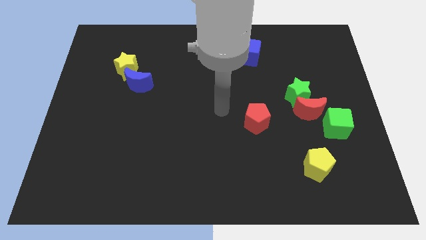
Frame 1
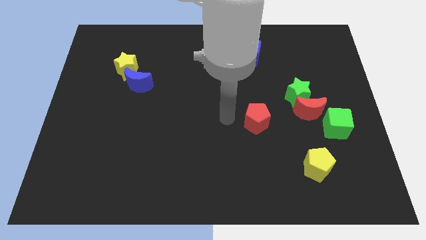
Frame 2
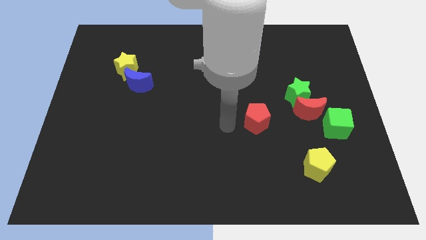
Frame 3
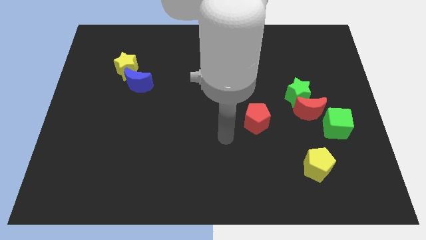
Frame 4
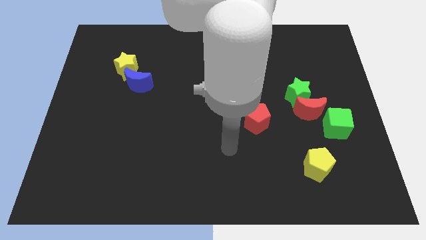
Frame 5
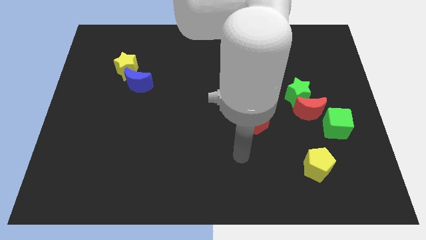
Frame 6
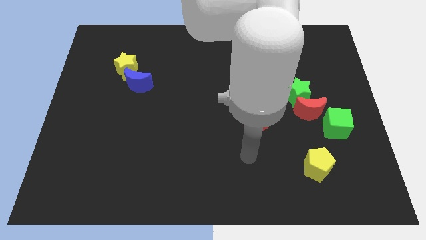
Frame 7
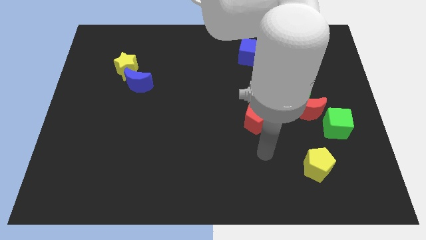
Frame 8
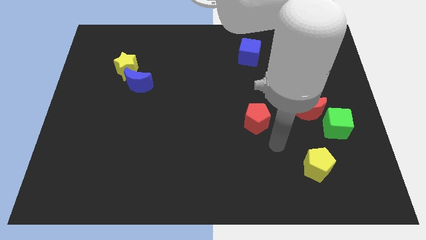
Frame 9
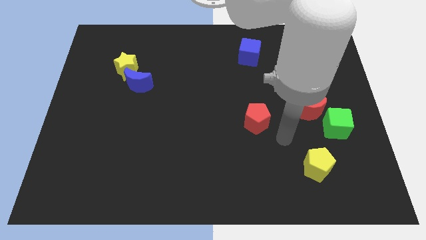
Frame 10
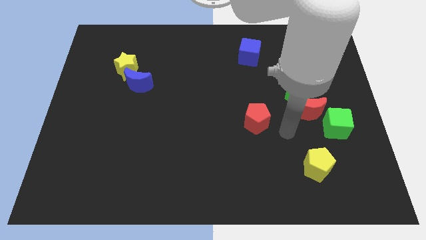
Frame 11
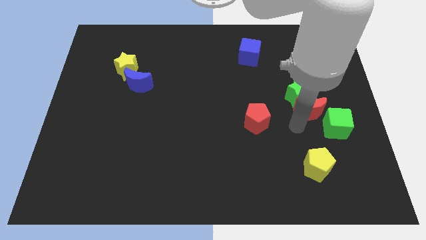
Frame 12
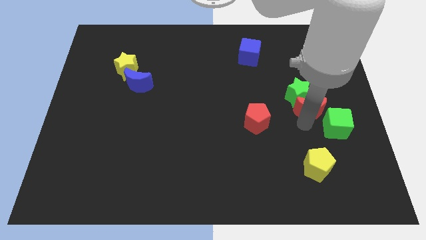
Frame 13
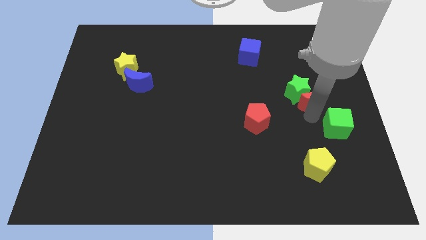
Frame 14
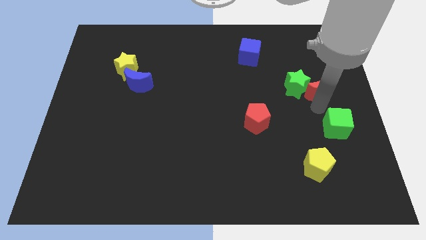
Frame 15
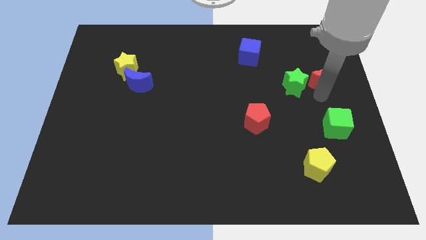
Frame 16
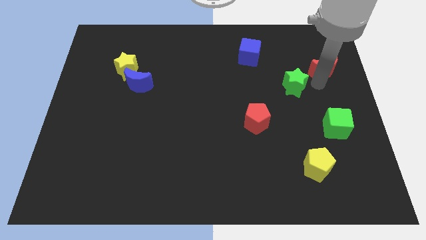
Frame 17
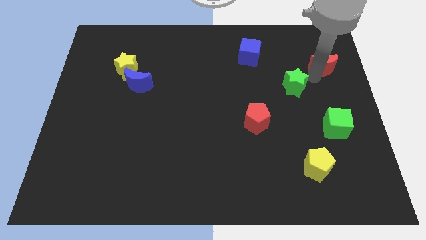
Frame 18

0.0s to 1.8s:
pull the green star apart from the red moon

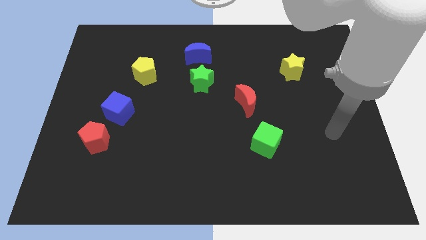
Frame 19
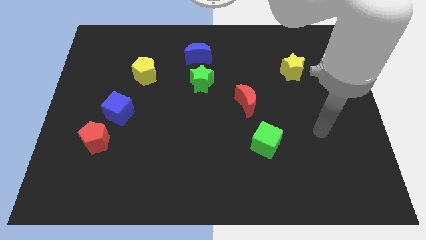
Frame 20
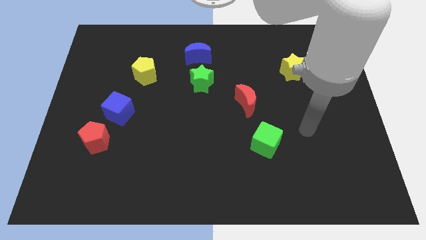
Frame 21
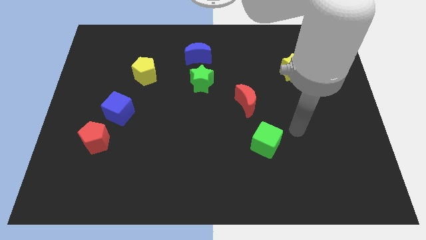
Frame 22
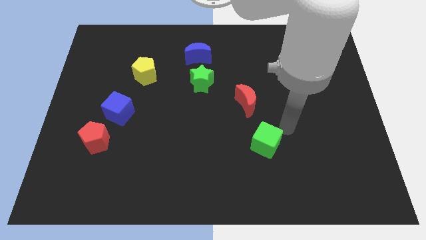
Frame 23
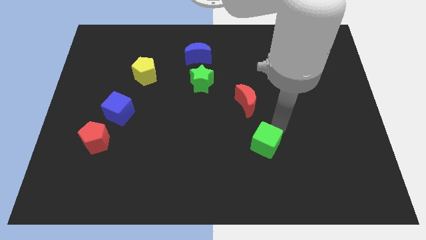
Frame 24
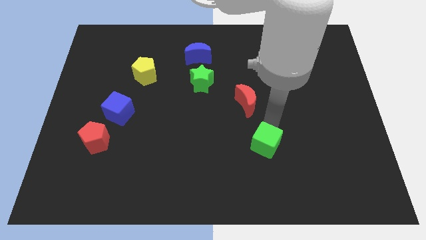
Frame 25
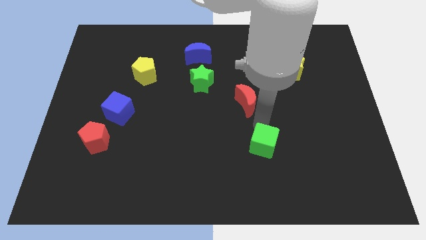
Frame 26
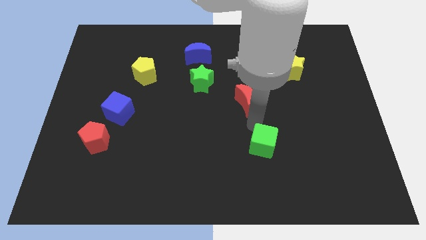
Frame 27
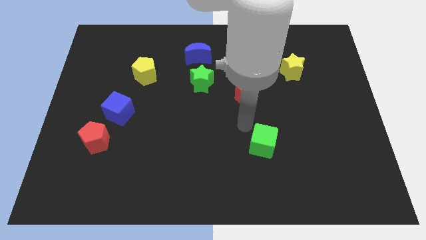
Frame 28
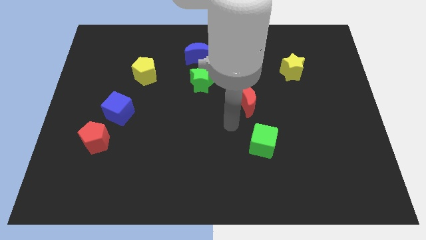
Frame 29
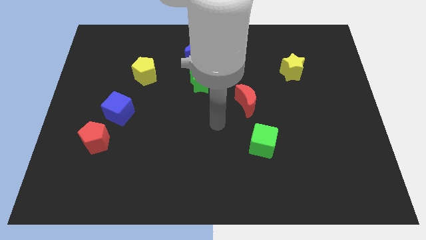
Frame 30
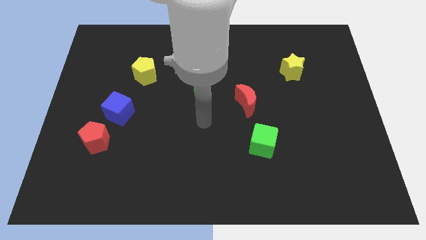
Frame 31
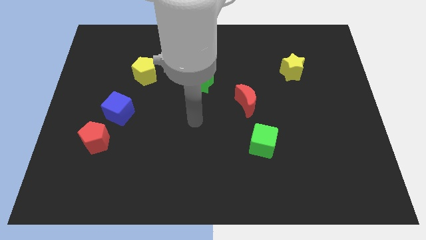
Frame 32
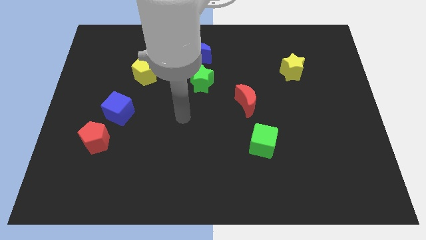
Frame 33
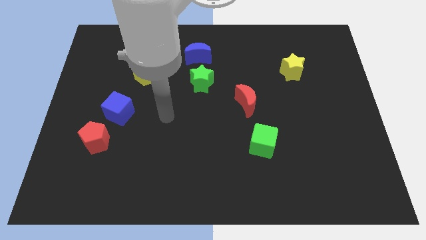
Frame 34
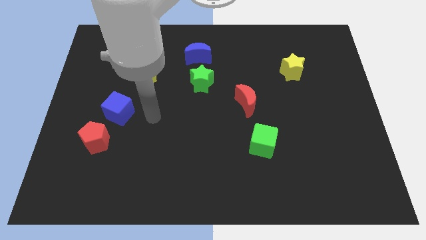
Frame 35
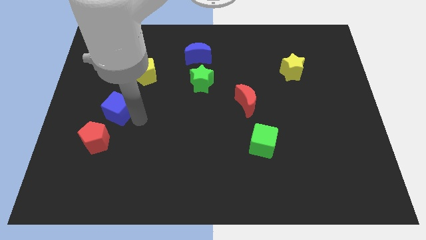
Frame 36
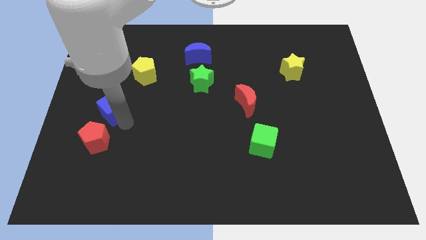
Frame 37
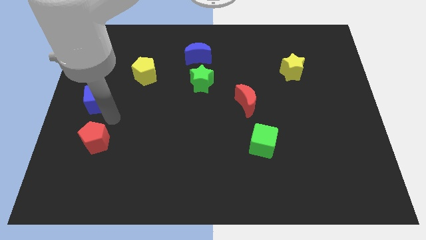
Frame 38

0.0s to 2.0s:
separate the red pentagon from the blue cube

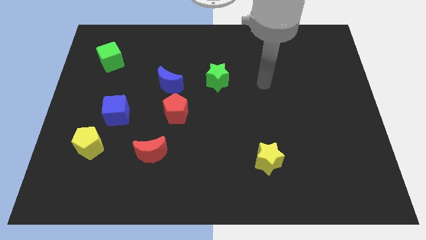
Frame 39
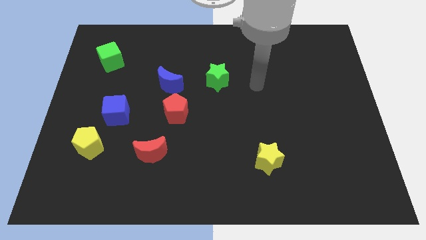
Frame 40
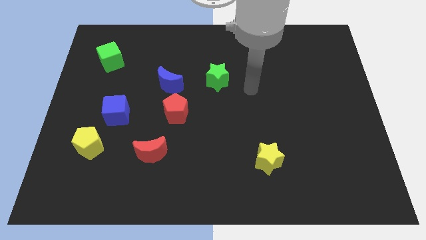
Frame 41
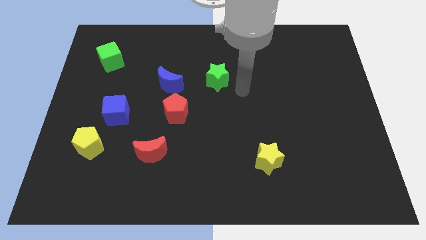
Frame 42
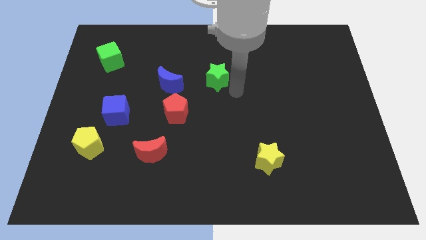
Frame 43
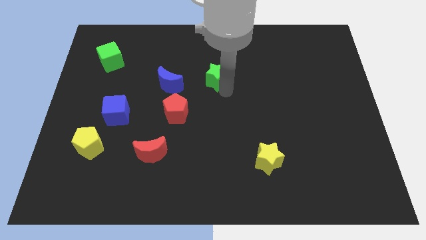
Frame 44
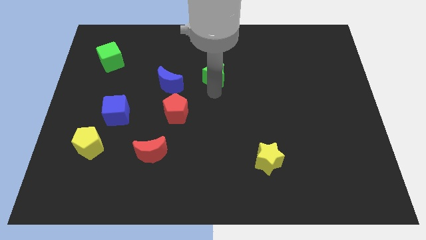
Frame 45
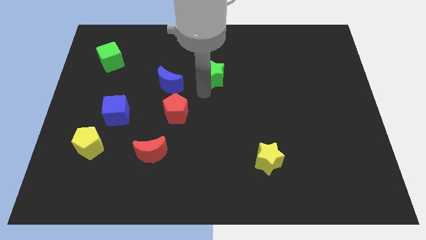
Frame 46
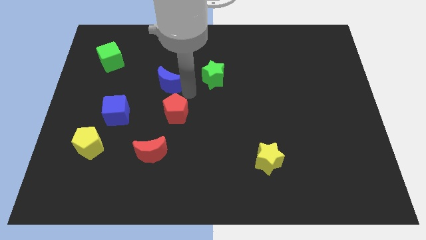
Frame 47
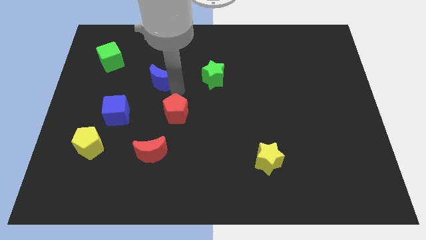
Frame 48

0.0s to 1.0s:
move the red pentagon away from the blue moon

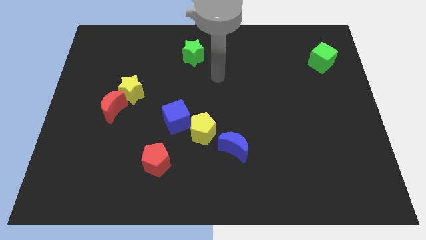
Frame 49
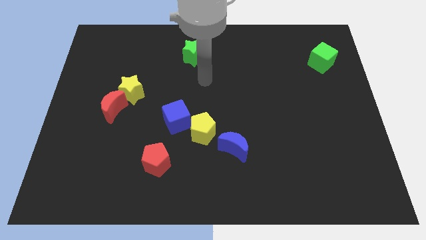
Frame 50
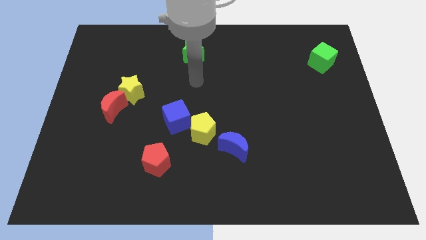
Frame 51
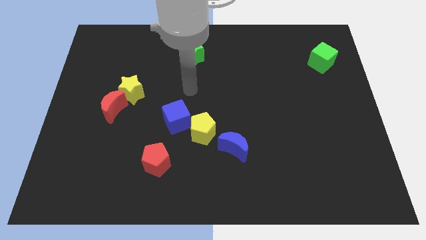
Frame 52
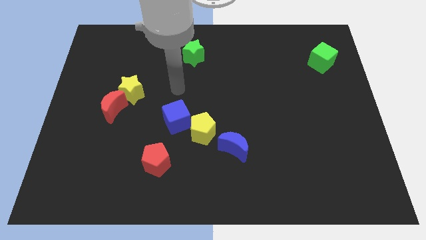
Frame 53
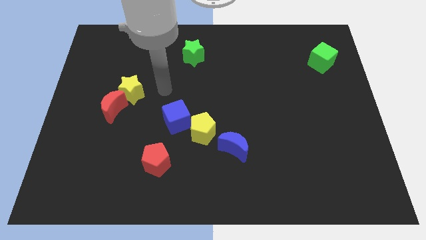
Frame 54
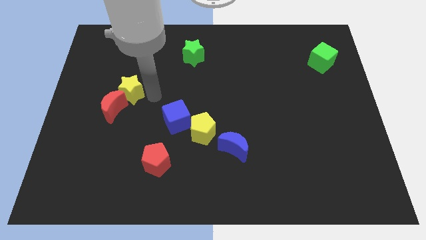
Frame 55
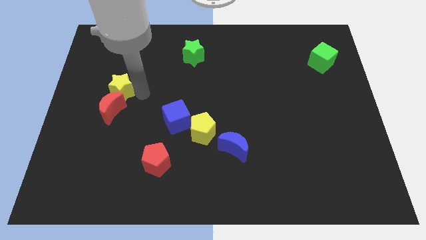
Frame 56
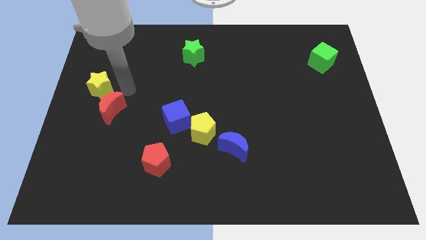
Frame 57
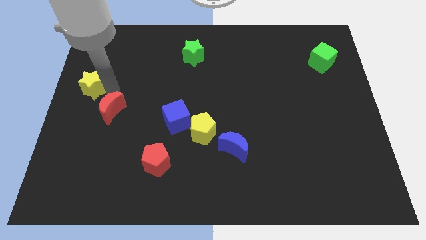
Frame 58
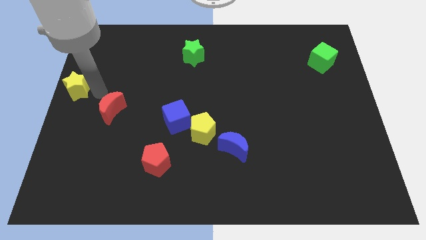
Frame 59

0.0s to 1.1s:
move the red moon away from the yellow star

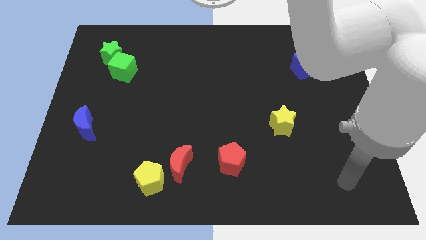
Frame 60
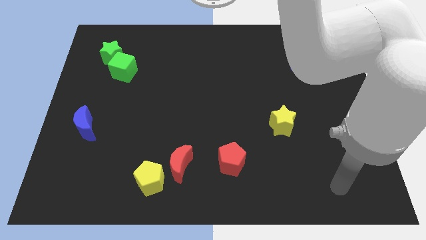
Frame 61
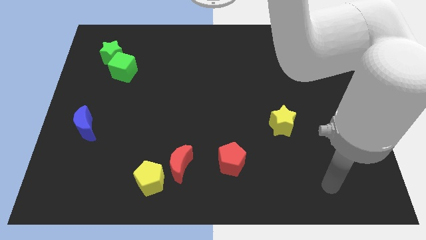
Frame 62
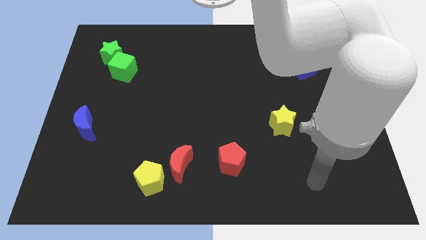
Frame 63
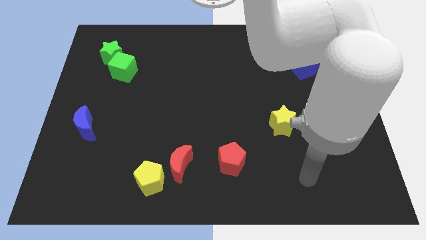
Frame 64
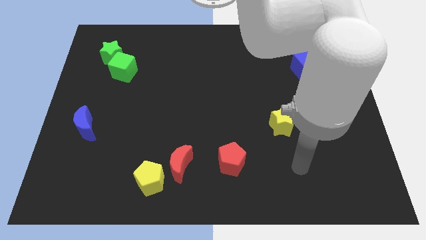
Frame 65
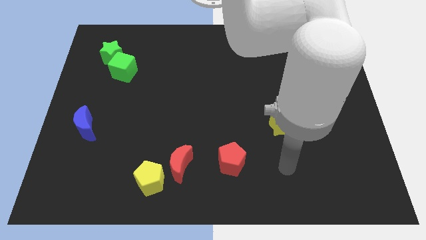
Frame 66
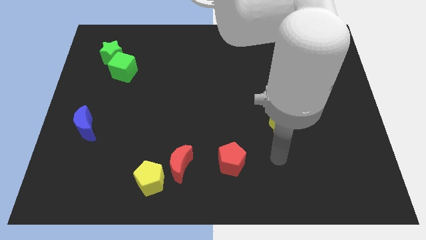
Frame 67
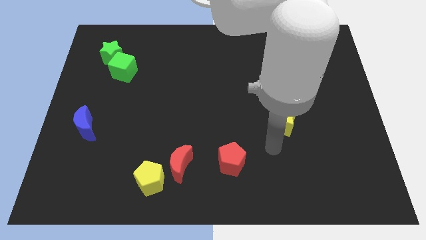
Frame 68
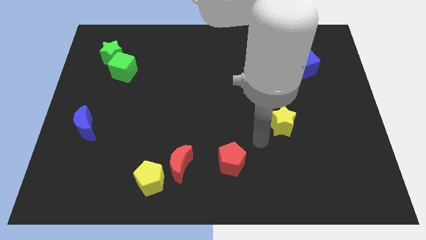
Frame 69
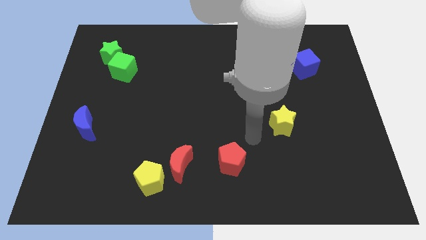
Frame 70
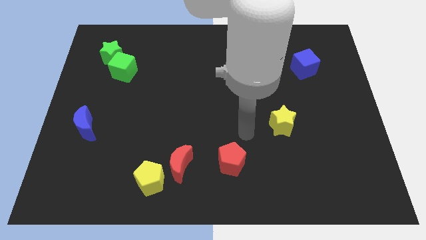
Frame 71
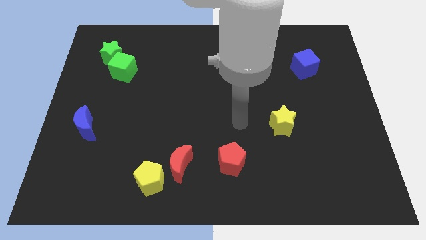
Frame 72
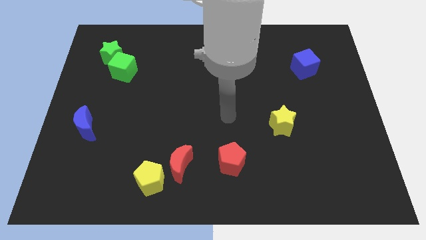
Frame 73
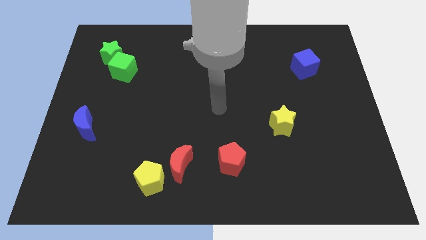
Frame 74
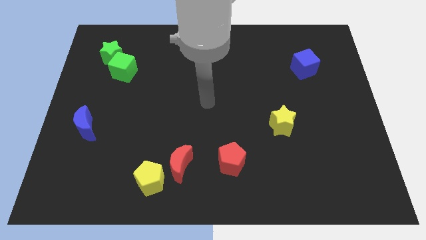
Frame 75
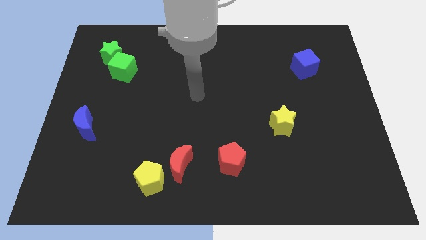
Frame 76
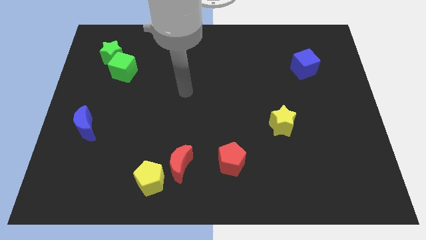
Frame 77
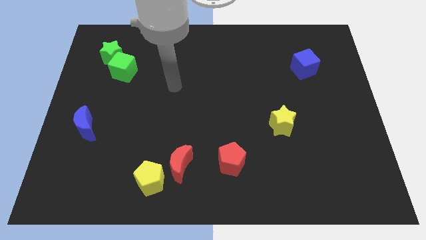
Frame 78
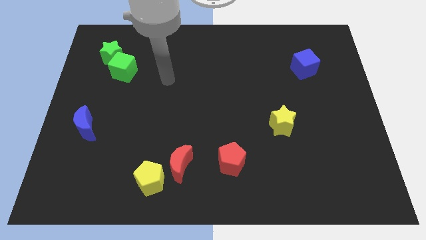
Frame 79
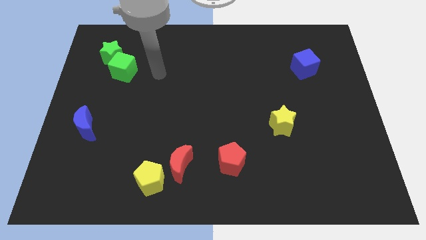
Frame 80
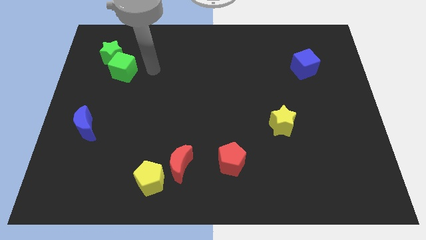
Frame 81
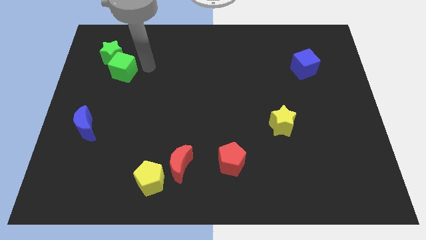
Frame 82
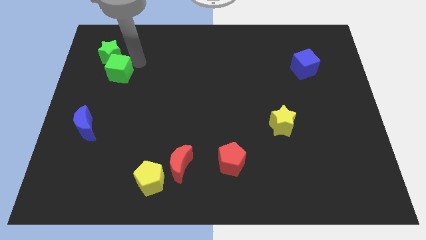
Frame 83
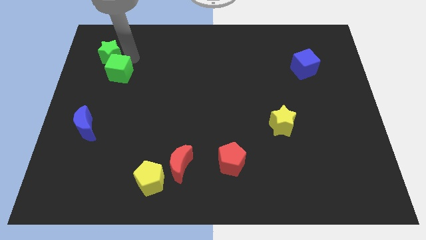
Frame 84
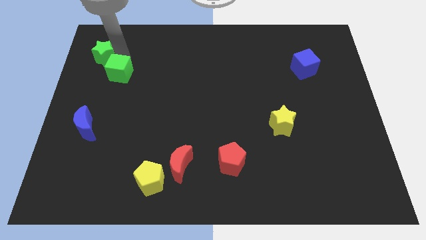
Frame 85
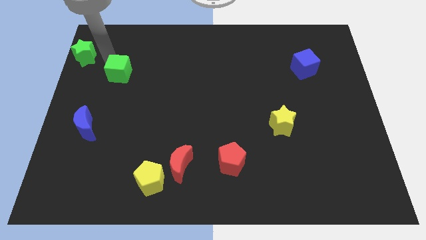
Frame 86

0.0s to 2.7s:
move the green cube away from the green star

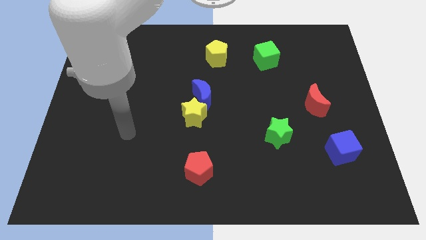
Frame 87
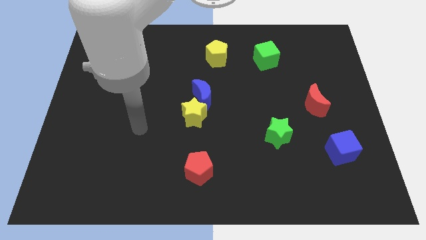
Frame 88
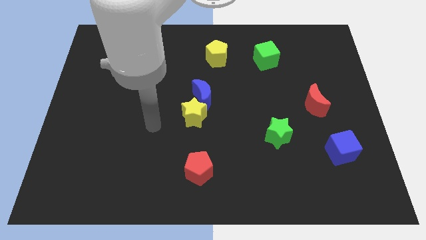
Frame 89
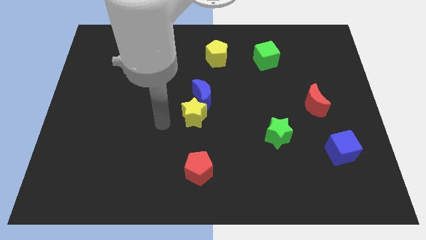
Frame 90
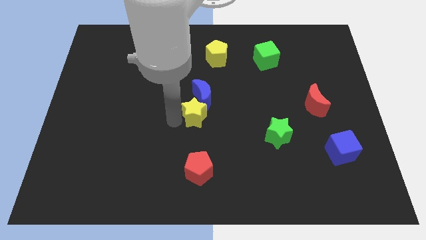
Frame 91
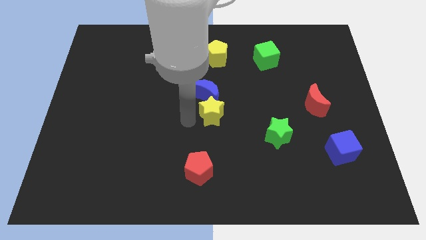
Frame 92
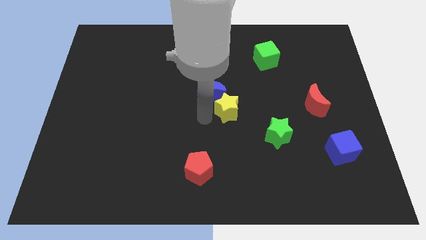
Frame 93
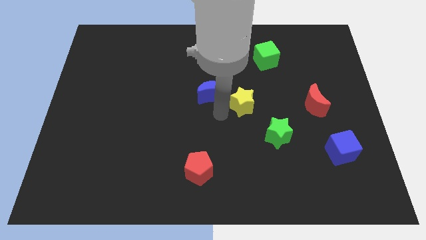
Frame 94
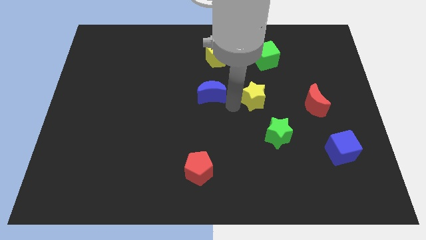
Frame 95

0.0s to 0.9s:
move the blue moon away from the yellow star
